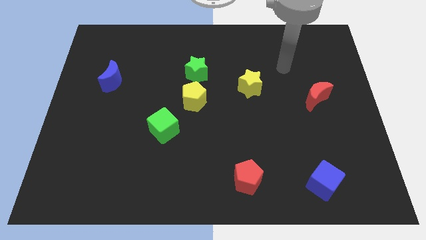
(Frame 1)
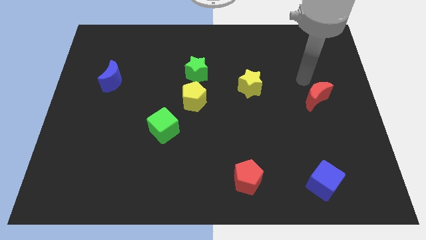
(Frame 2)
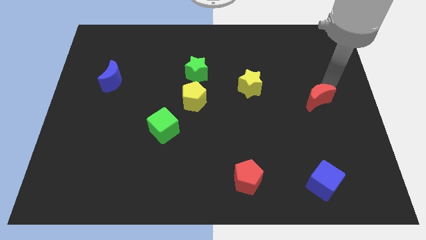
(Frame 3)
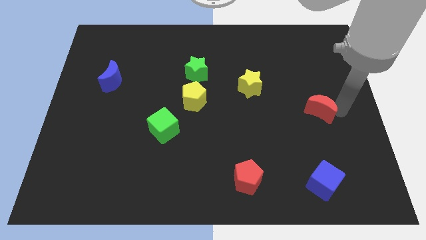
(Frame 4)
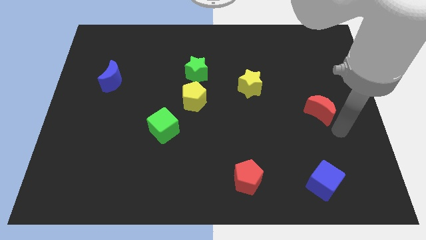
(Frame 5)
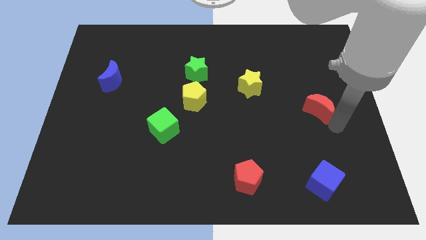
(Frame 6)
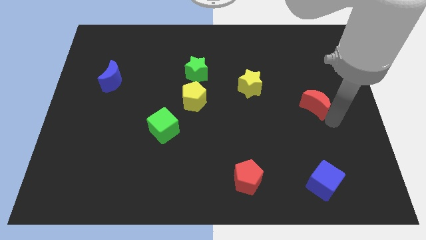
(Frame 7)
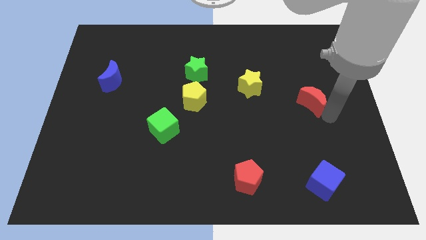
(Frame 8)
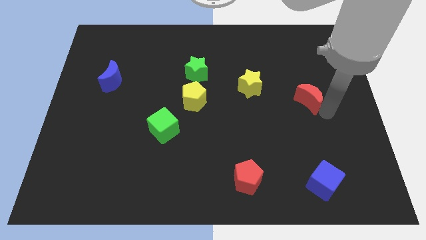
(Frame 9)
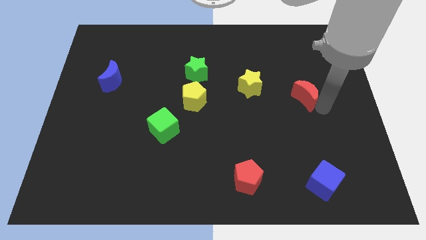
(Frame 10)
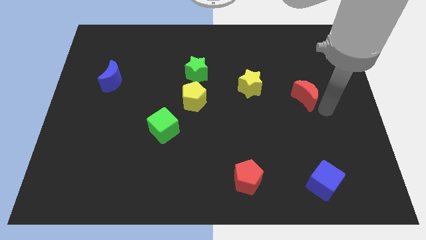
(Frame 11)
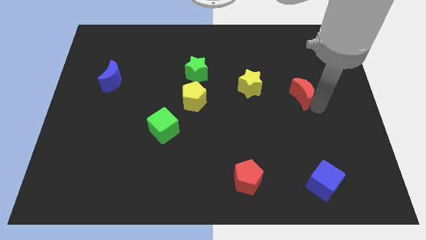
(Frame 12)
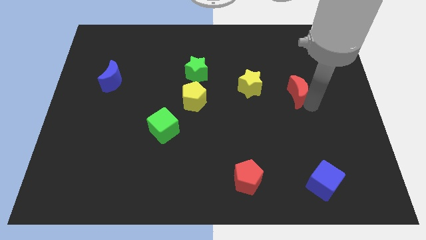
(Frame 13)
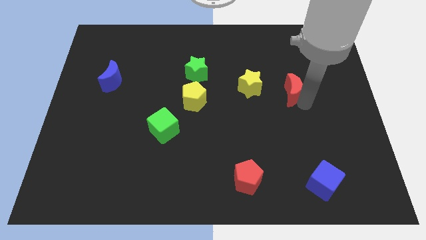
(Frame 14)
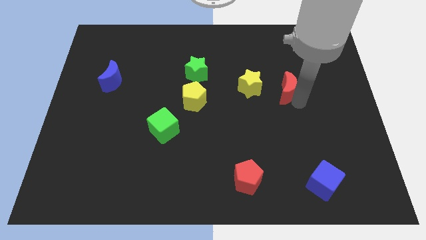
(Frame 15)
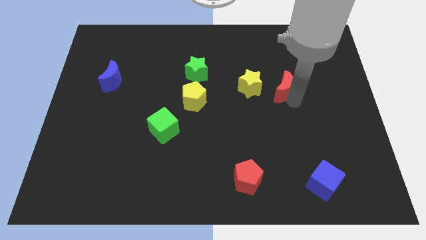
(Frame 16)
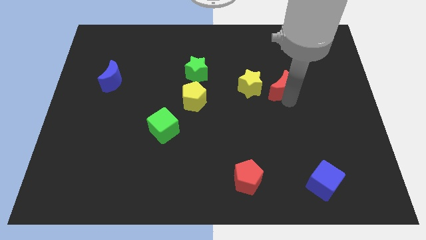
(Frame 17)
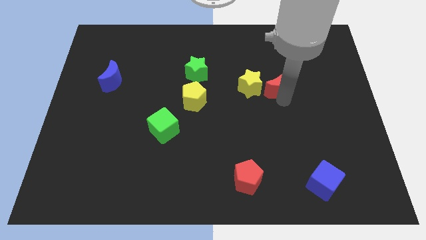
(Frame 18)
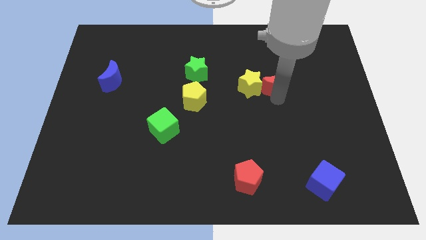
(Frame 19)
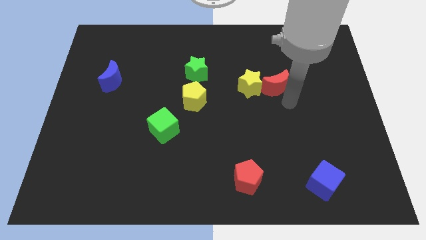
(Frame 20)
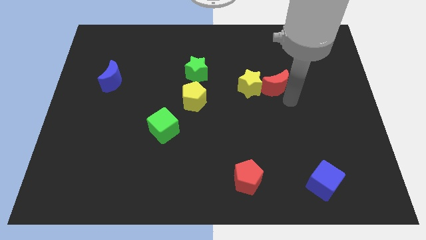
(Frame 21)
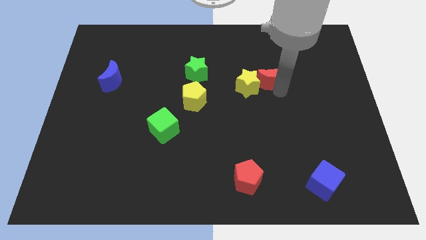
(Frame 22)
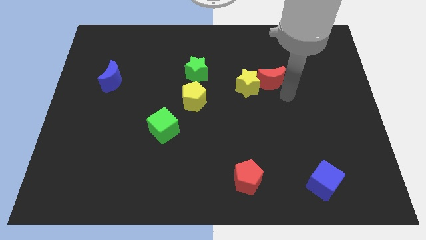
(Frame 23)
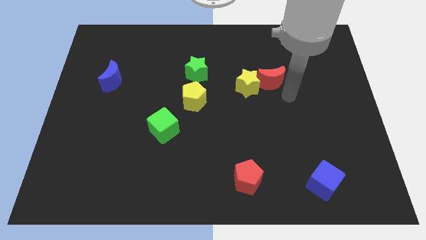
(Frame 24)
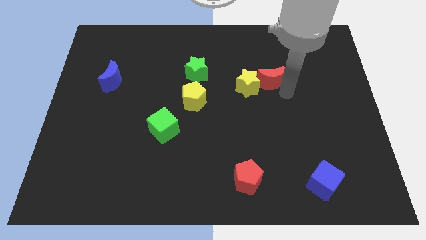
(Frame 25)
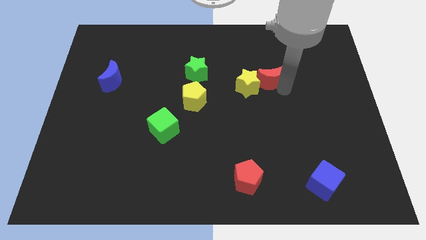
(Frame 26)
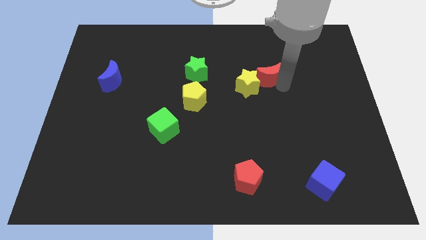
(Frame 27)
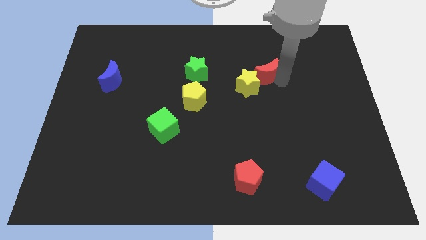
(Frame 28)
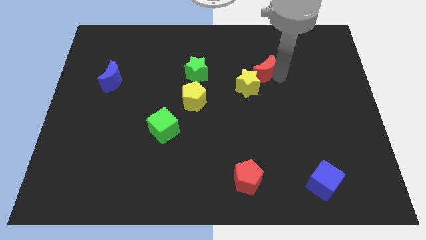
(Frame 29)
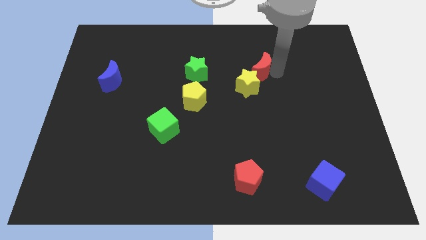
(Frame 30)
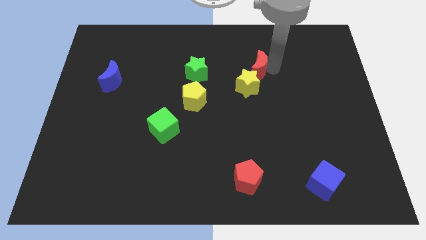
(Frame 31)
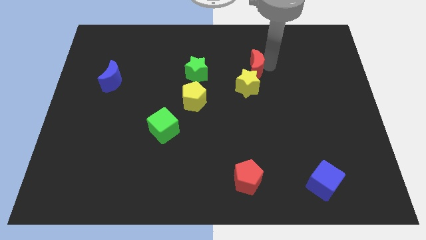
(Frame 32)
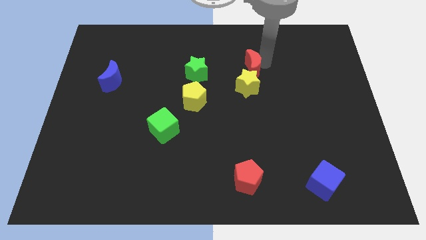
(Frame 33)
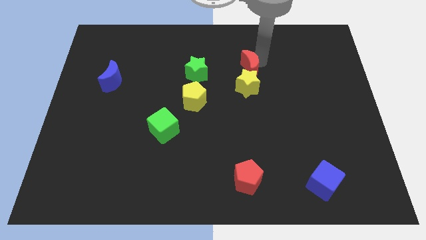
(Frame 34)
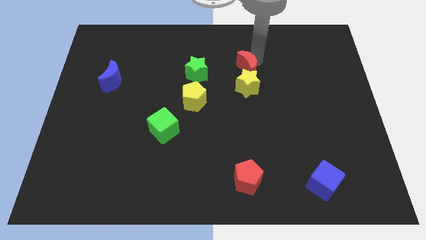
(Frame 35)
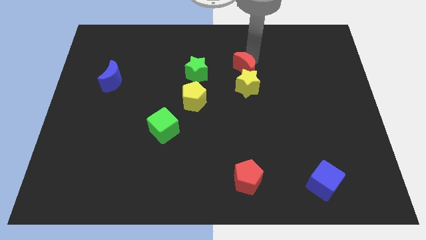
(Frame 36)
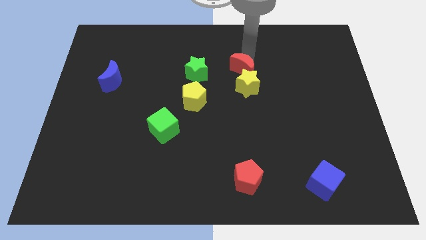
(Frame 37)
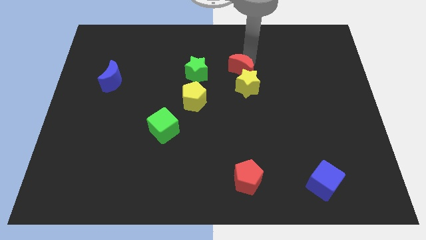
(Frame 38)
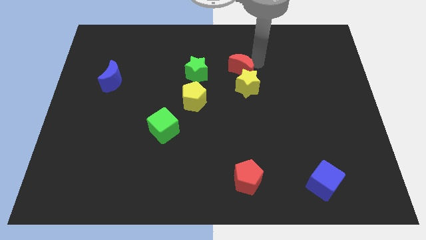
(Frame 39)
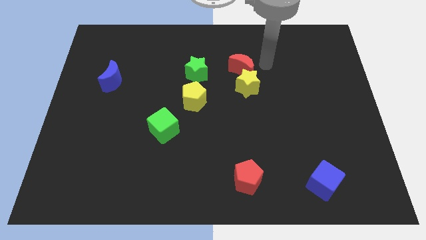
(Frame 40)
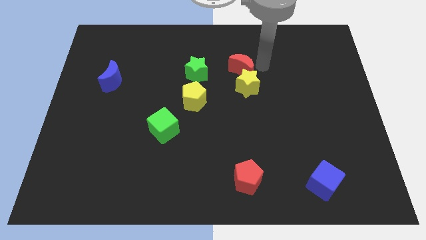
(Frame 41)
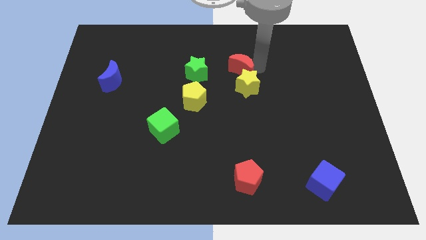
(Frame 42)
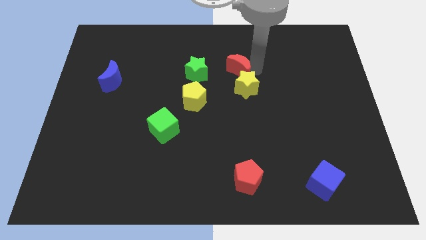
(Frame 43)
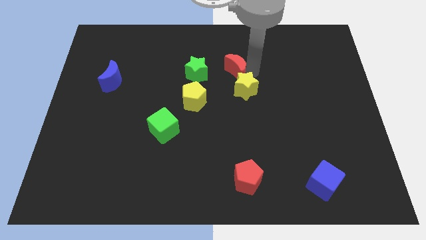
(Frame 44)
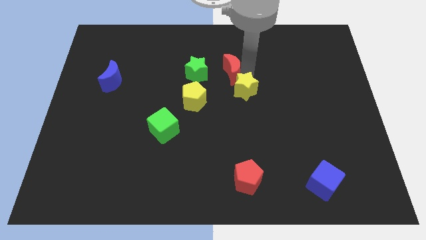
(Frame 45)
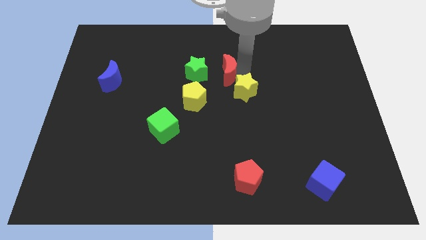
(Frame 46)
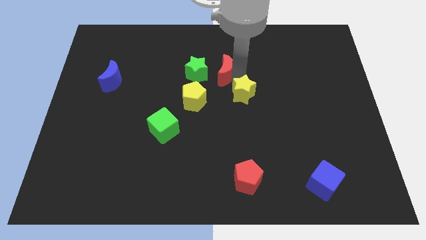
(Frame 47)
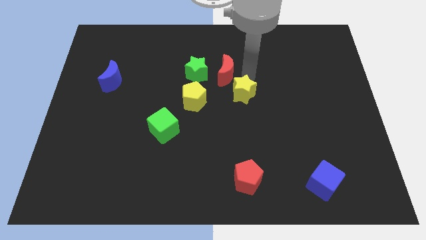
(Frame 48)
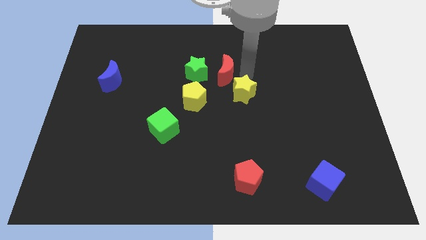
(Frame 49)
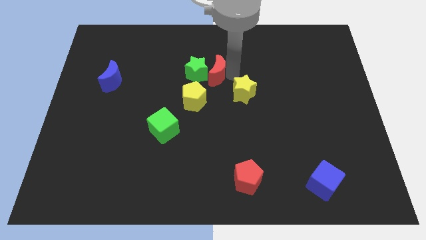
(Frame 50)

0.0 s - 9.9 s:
move the red moon next to the green star

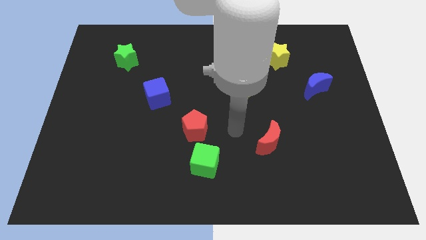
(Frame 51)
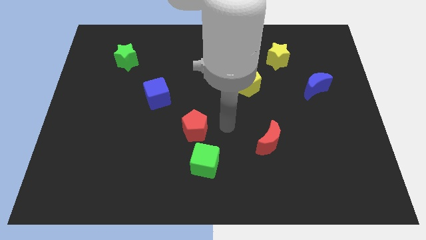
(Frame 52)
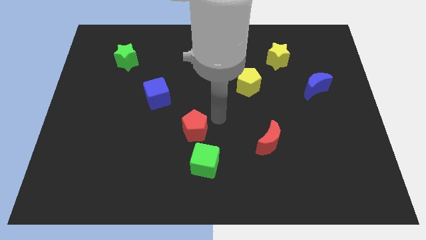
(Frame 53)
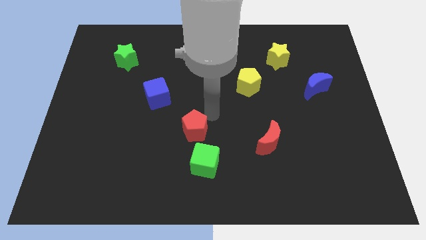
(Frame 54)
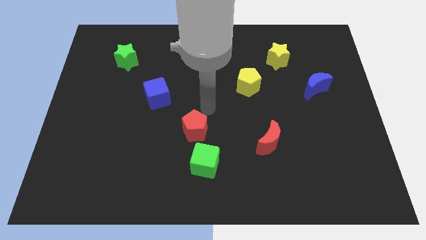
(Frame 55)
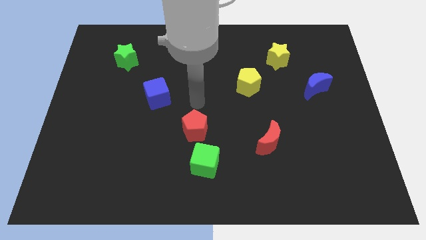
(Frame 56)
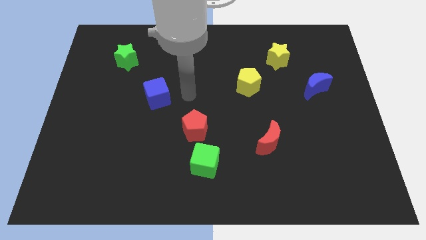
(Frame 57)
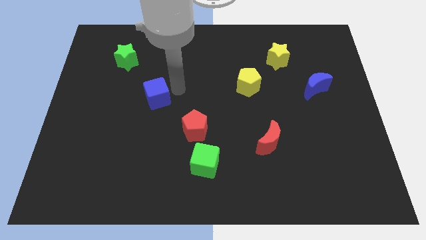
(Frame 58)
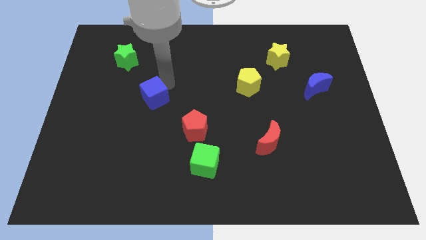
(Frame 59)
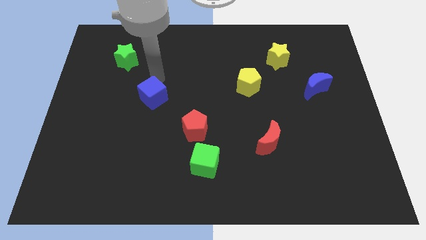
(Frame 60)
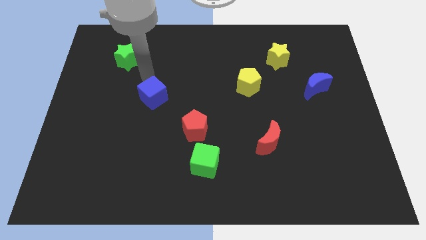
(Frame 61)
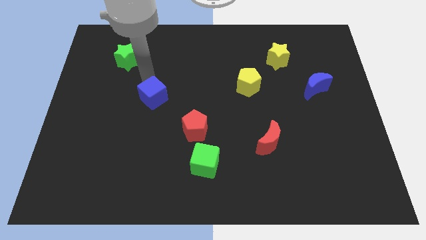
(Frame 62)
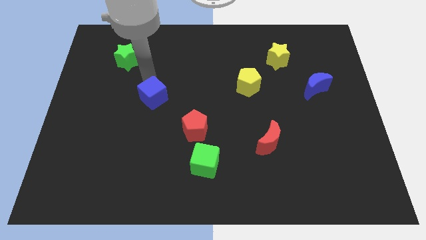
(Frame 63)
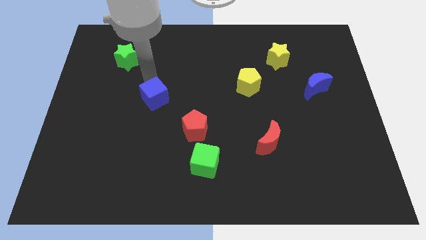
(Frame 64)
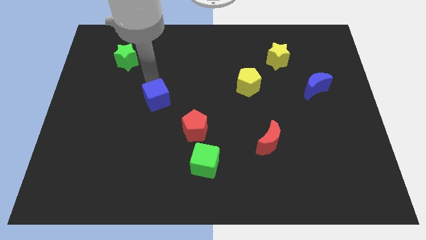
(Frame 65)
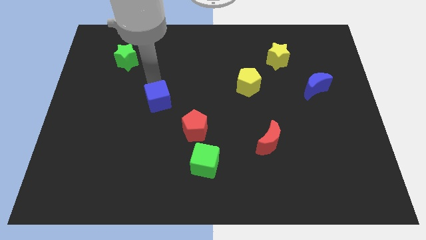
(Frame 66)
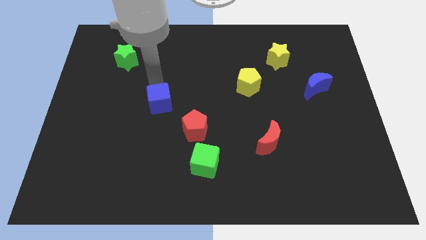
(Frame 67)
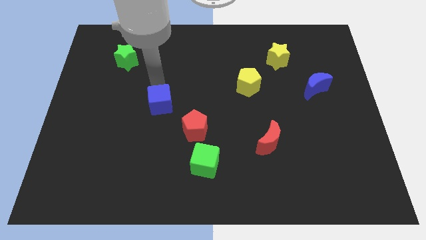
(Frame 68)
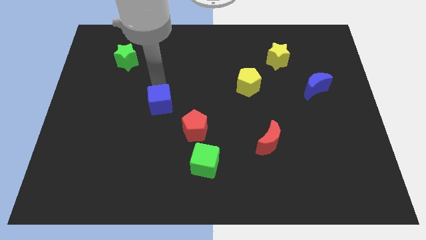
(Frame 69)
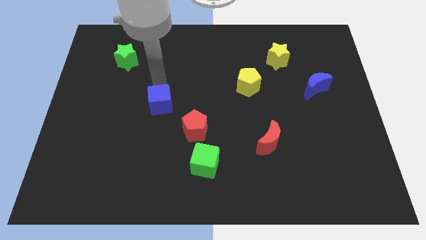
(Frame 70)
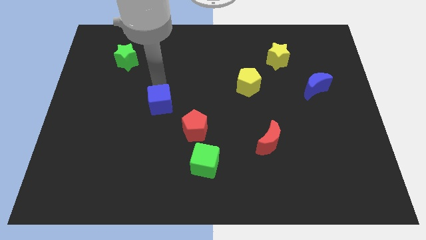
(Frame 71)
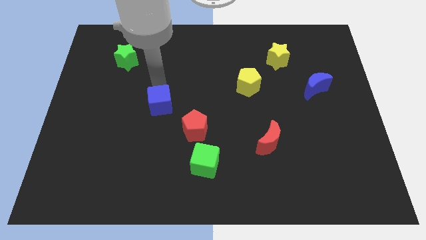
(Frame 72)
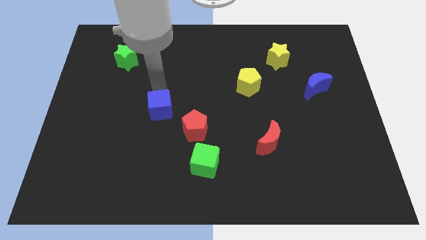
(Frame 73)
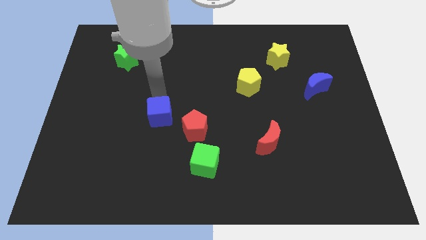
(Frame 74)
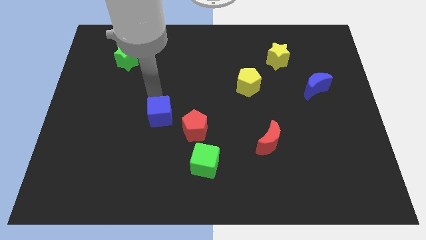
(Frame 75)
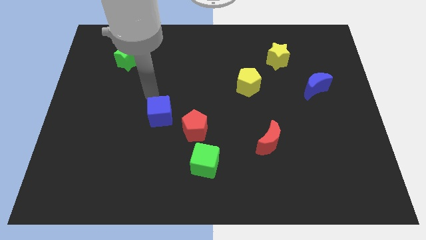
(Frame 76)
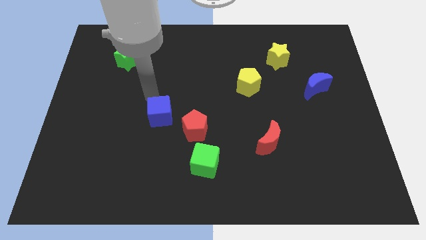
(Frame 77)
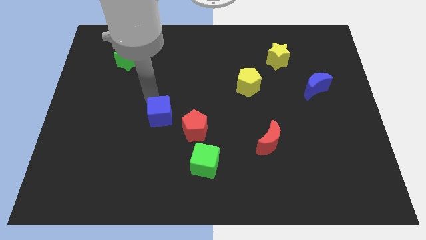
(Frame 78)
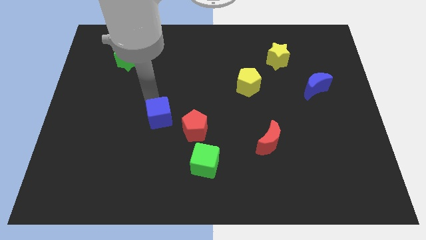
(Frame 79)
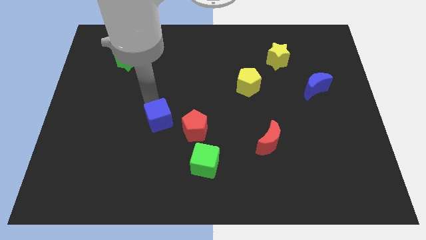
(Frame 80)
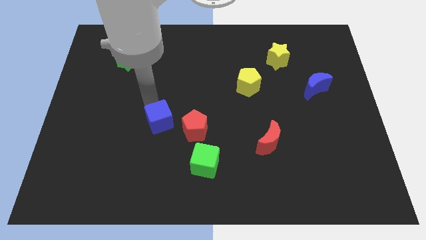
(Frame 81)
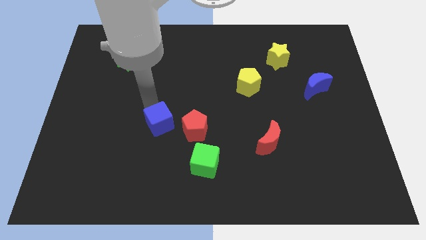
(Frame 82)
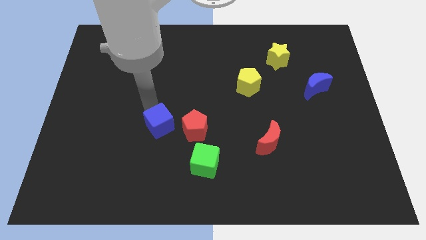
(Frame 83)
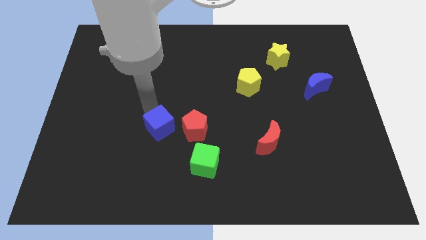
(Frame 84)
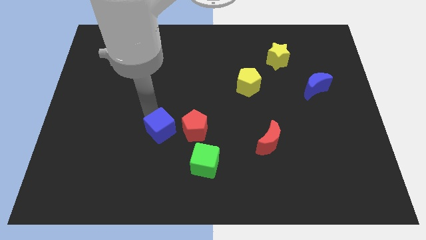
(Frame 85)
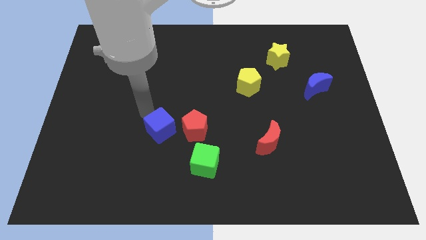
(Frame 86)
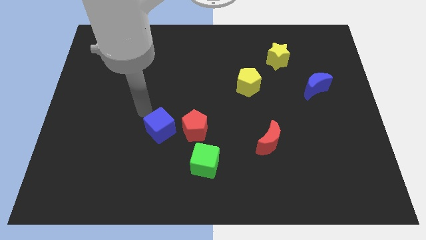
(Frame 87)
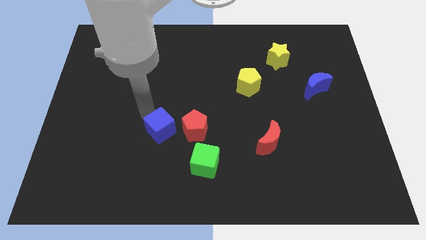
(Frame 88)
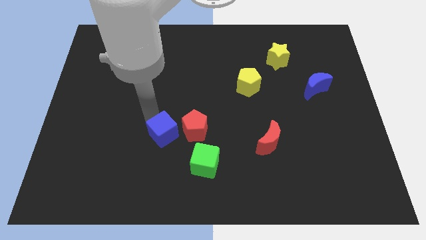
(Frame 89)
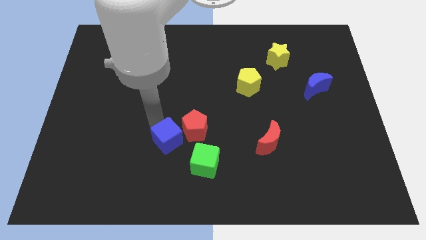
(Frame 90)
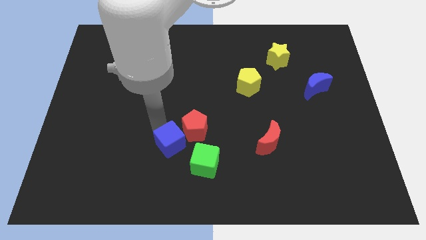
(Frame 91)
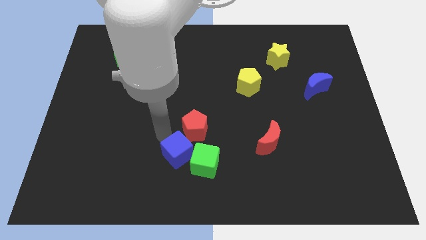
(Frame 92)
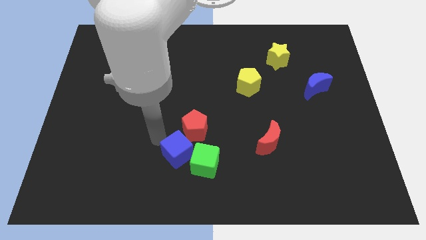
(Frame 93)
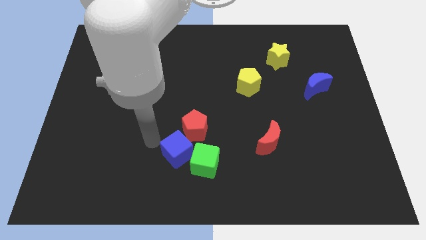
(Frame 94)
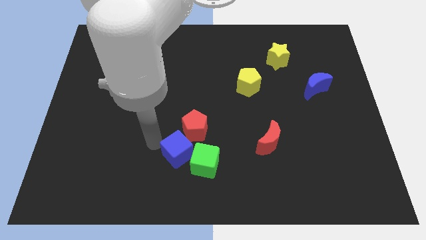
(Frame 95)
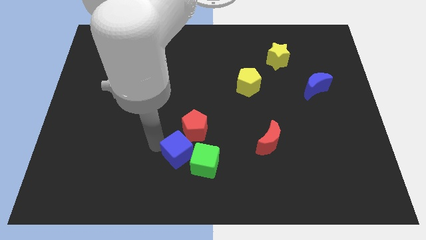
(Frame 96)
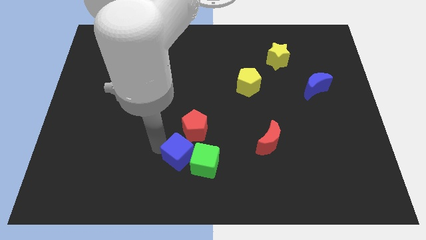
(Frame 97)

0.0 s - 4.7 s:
slide the blue cube towards the green cube
